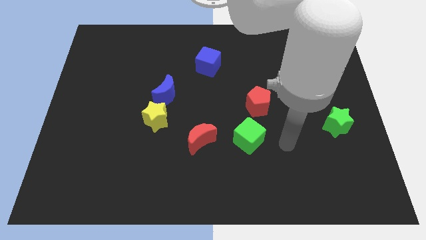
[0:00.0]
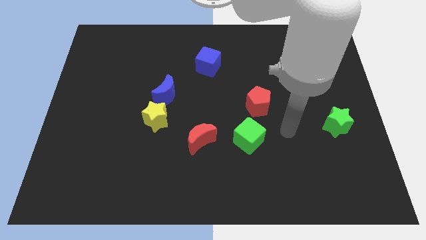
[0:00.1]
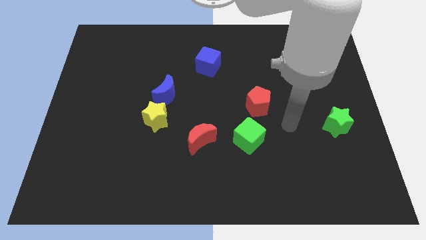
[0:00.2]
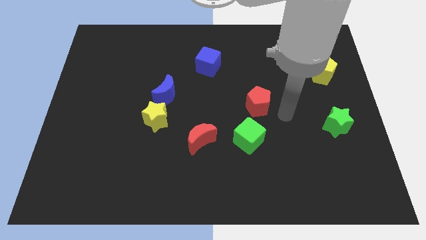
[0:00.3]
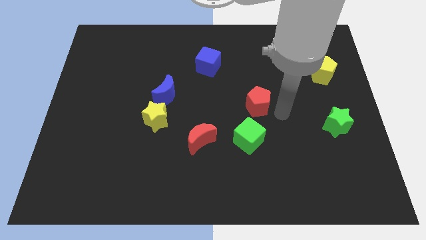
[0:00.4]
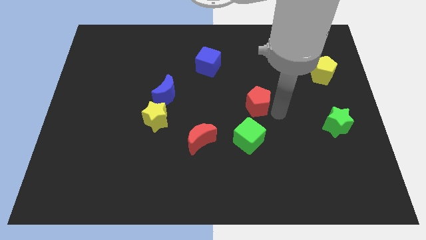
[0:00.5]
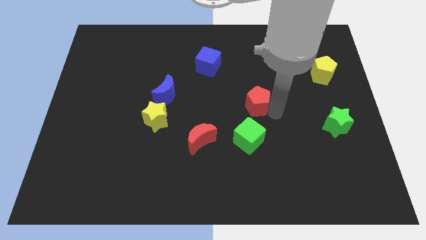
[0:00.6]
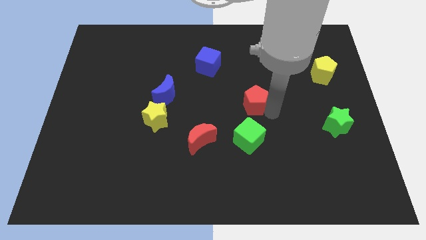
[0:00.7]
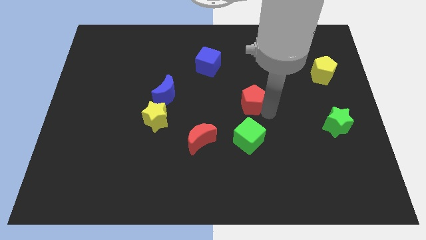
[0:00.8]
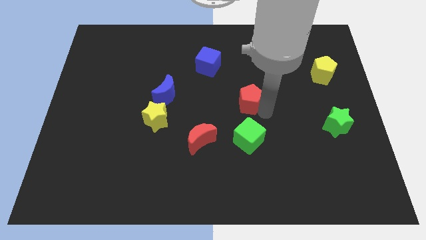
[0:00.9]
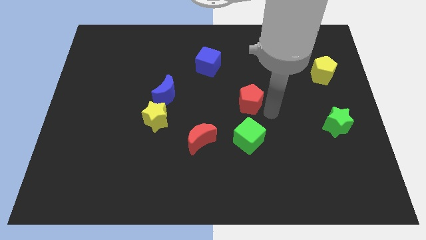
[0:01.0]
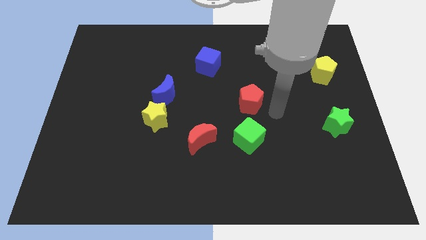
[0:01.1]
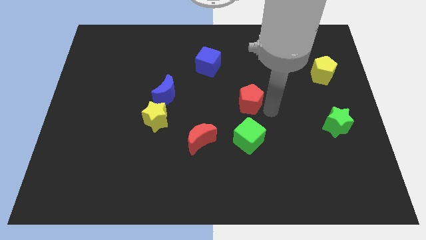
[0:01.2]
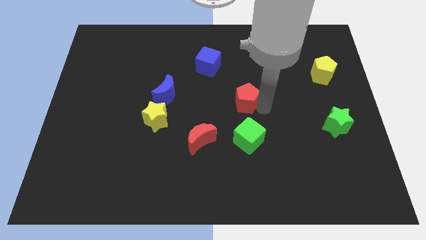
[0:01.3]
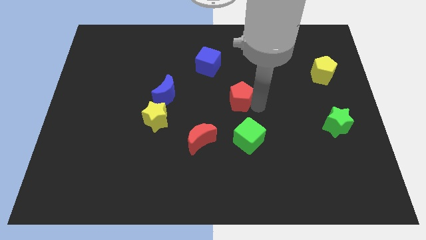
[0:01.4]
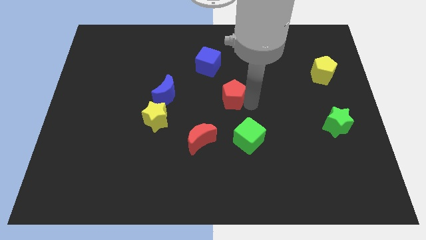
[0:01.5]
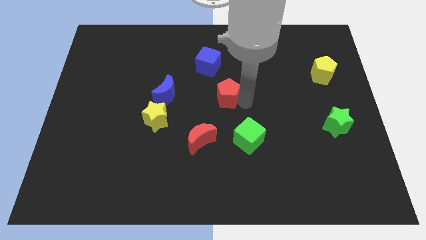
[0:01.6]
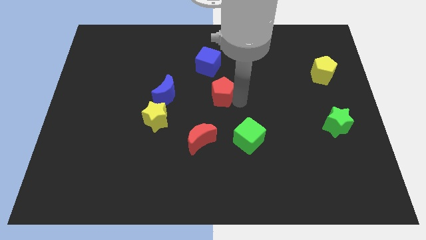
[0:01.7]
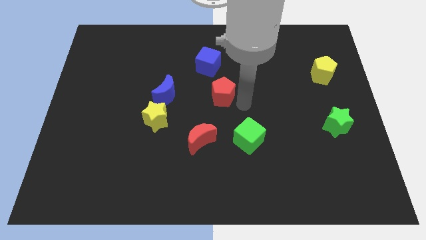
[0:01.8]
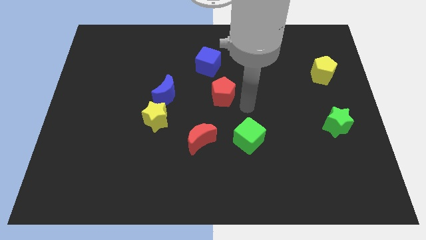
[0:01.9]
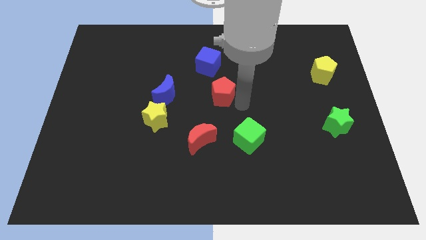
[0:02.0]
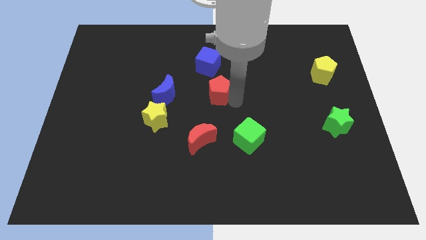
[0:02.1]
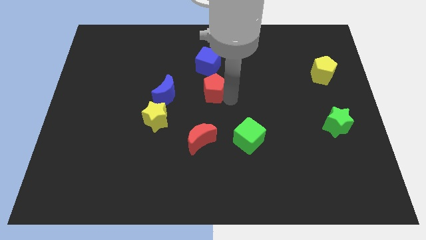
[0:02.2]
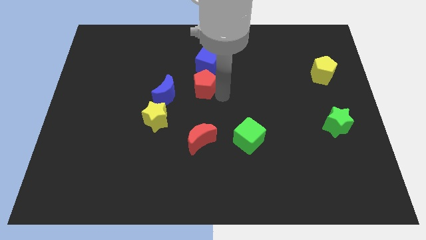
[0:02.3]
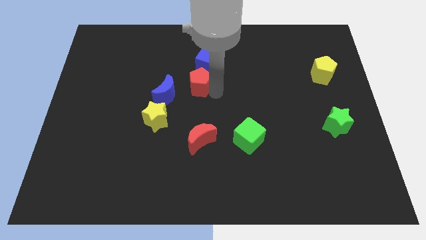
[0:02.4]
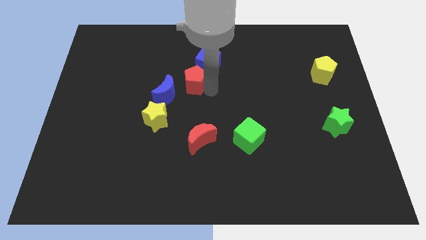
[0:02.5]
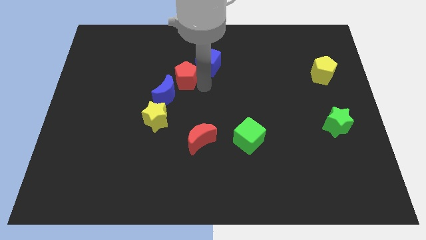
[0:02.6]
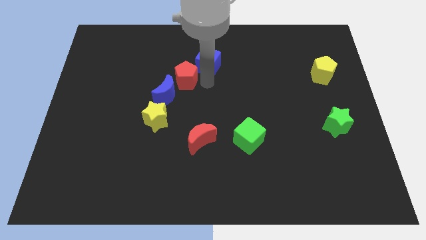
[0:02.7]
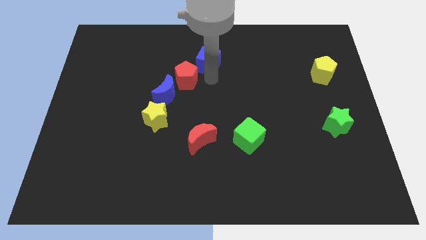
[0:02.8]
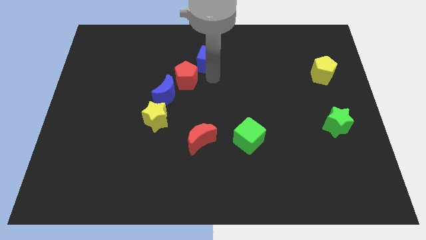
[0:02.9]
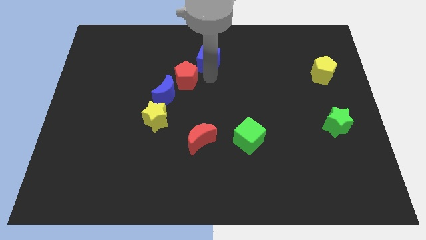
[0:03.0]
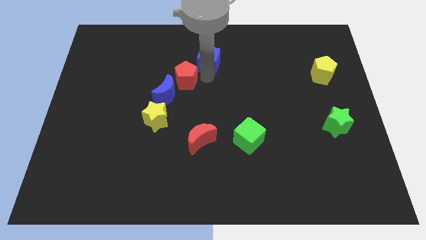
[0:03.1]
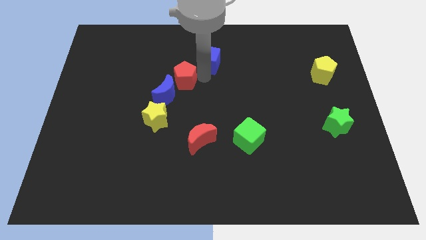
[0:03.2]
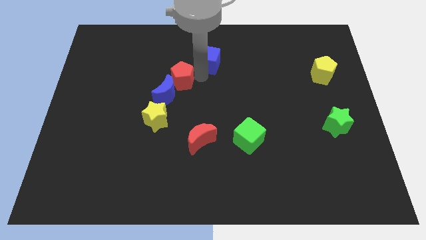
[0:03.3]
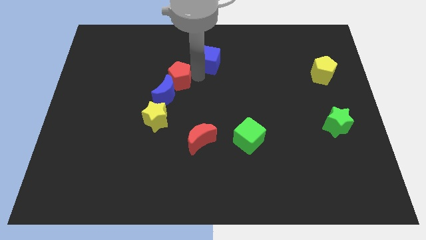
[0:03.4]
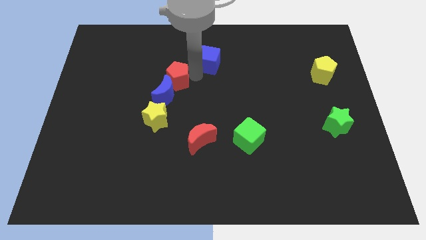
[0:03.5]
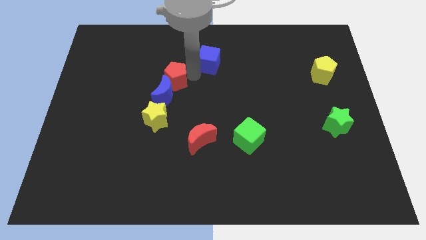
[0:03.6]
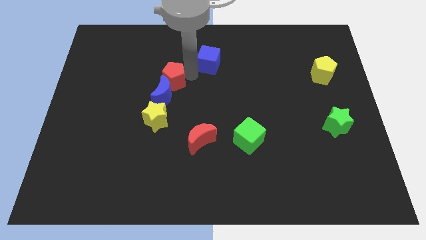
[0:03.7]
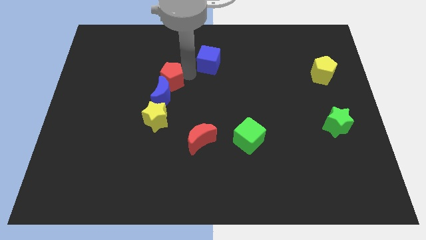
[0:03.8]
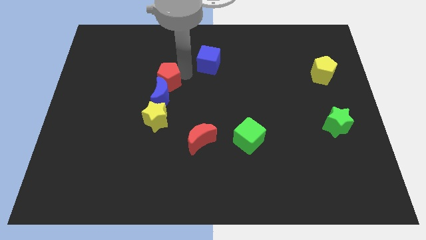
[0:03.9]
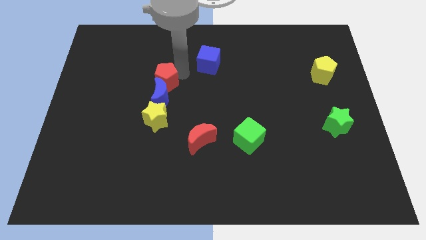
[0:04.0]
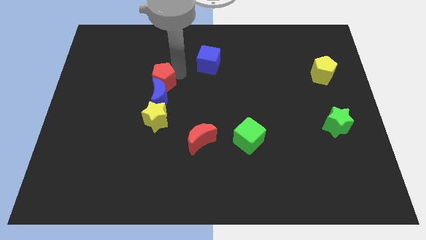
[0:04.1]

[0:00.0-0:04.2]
move the red pentagon to the left

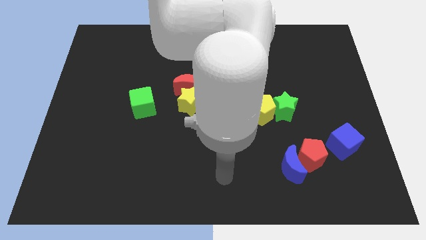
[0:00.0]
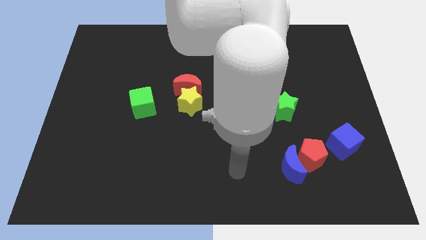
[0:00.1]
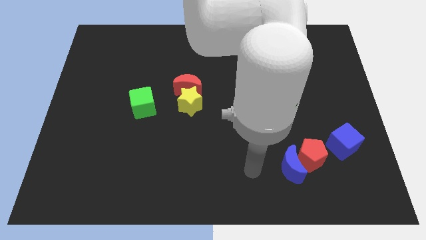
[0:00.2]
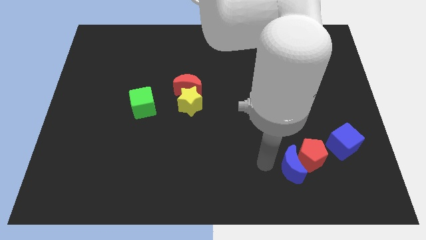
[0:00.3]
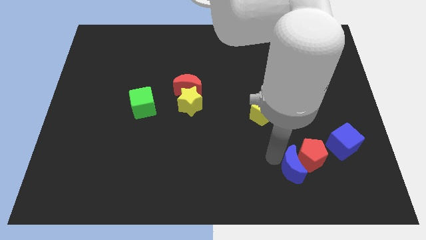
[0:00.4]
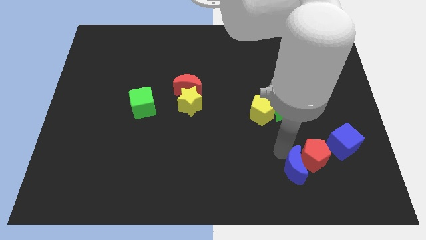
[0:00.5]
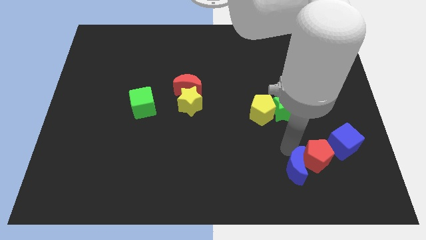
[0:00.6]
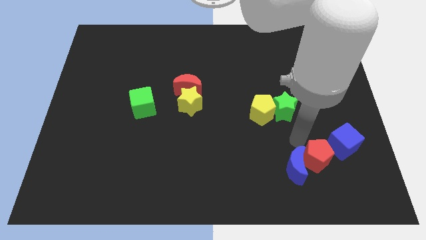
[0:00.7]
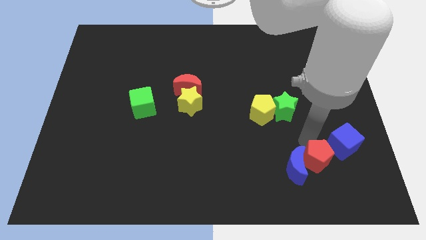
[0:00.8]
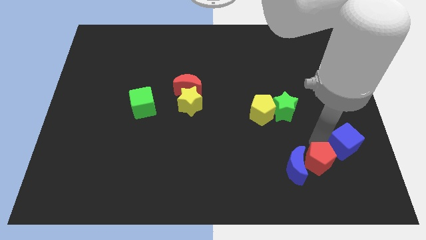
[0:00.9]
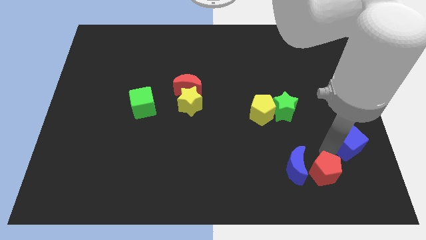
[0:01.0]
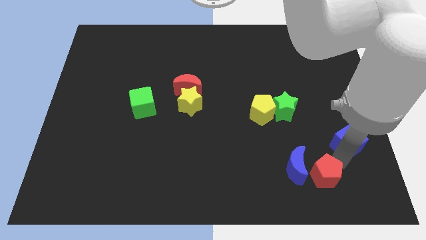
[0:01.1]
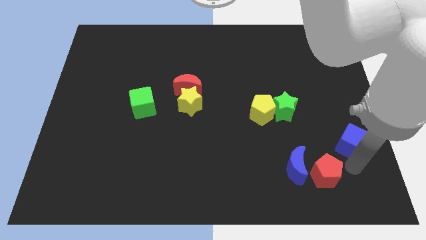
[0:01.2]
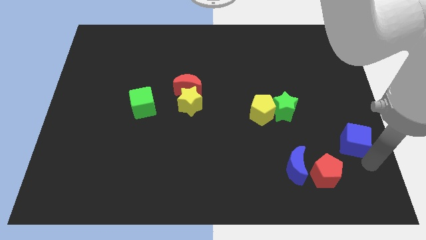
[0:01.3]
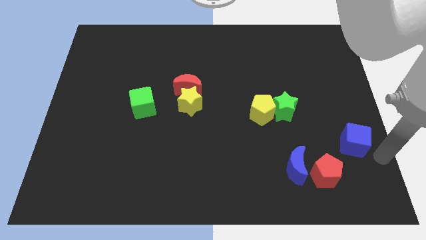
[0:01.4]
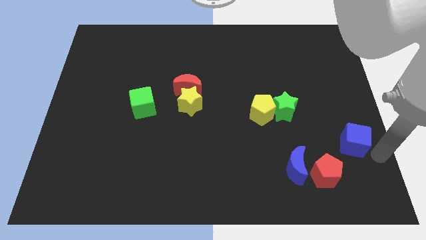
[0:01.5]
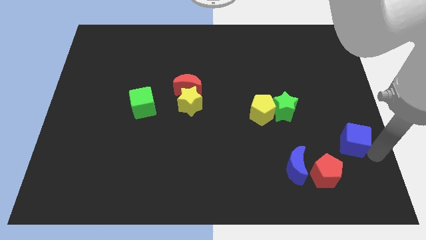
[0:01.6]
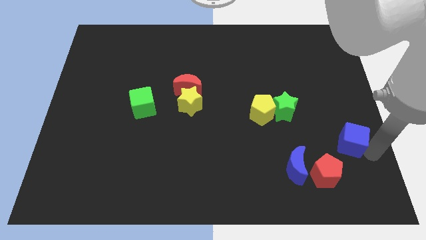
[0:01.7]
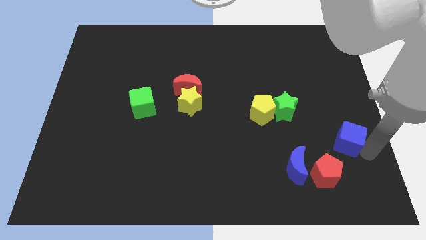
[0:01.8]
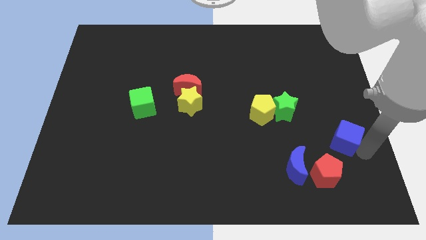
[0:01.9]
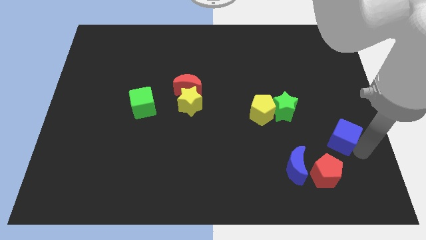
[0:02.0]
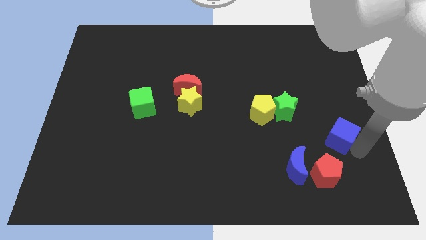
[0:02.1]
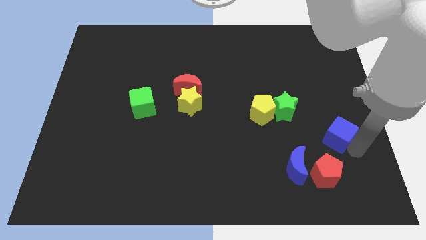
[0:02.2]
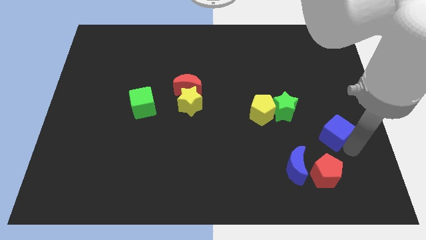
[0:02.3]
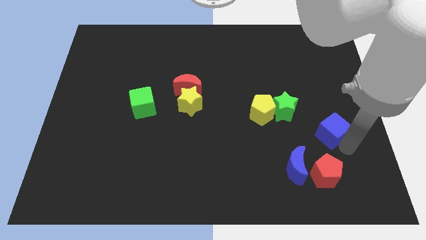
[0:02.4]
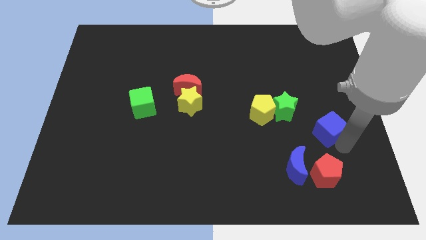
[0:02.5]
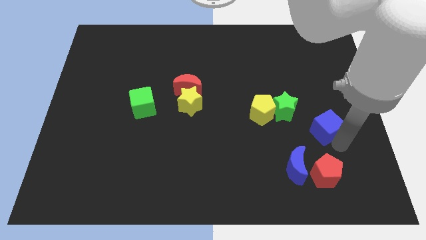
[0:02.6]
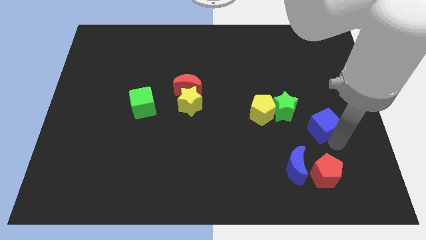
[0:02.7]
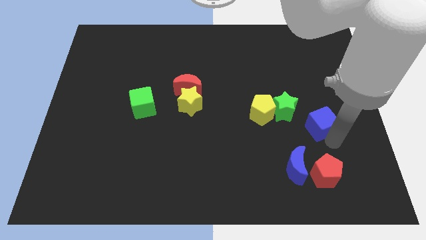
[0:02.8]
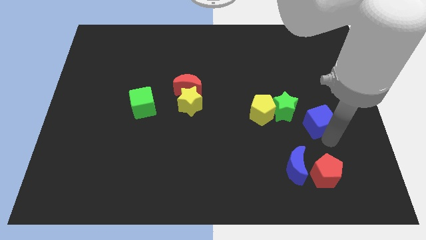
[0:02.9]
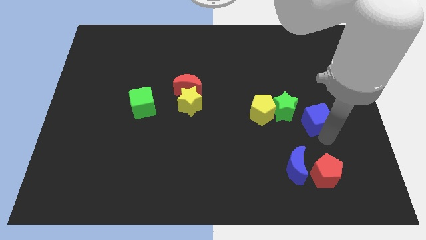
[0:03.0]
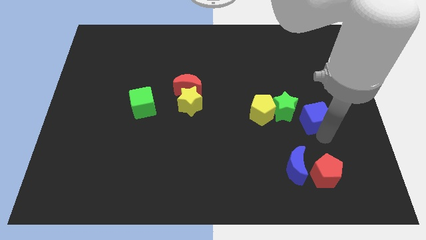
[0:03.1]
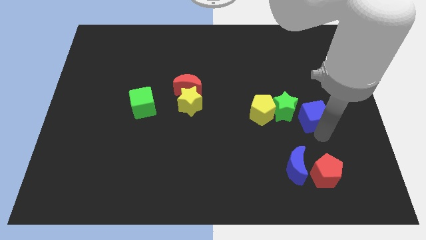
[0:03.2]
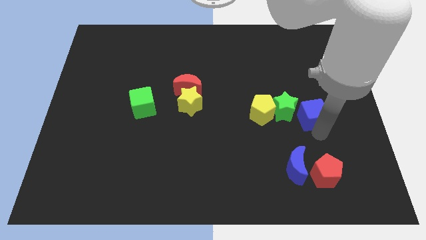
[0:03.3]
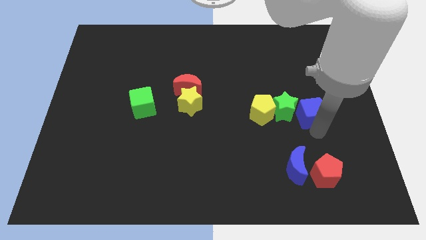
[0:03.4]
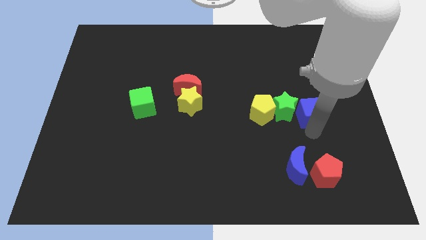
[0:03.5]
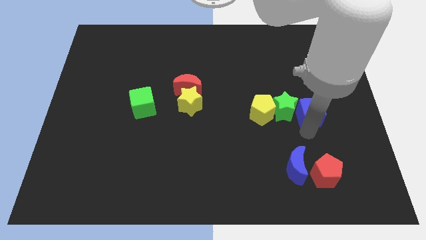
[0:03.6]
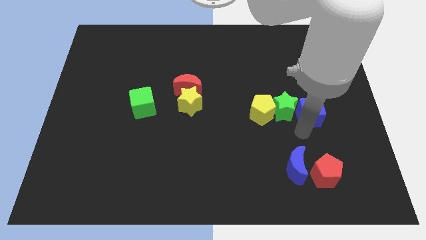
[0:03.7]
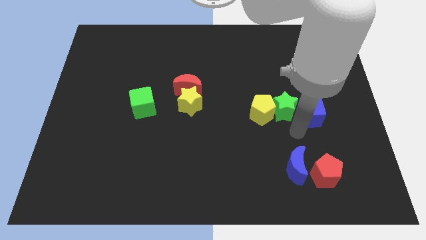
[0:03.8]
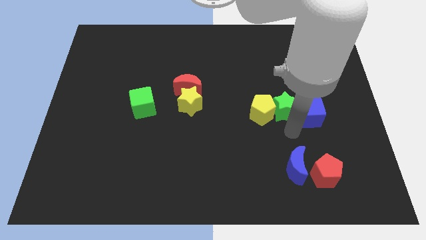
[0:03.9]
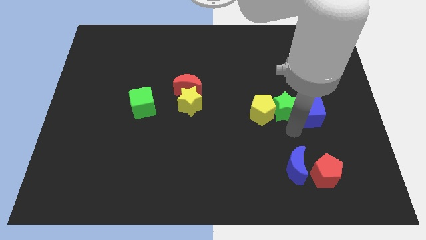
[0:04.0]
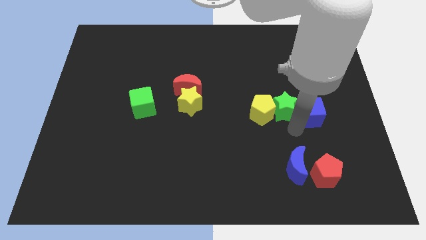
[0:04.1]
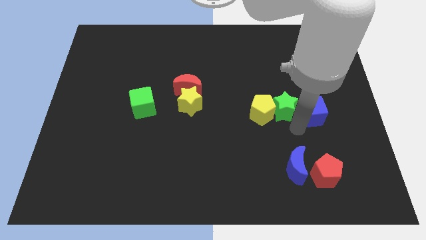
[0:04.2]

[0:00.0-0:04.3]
push the blue cube a little upwards

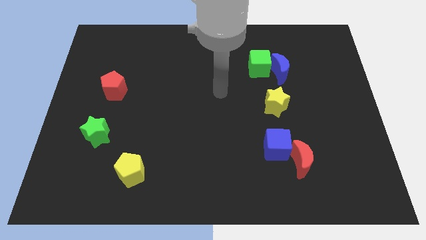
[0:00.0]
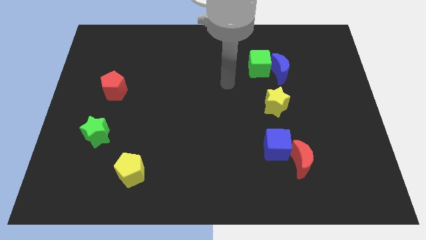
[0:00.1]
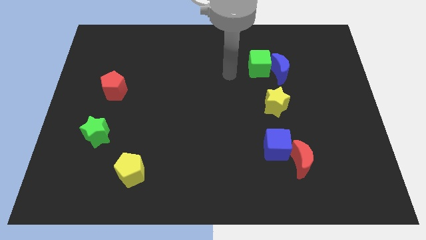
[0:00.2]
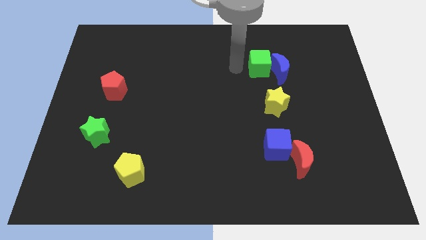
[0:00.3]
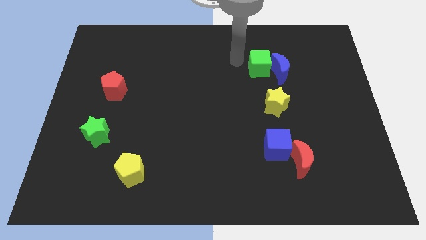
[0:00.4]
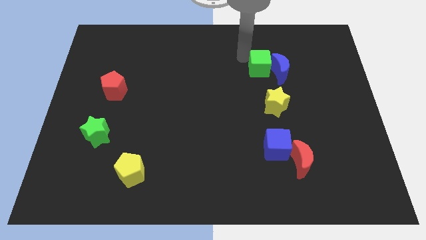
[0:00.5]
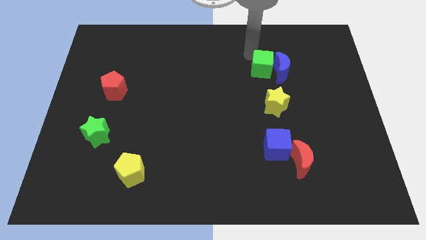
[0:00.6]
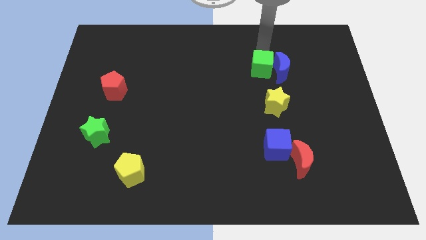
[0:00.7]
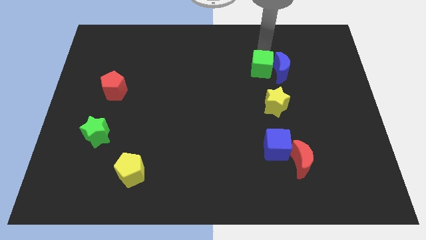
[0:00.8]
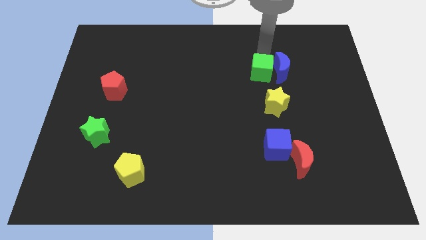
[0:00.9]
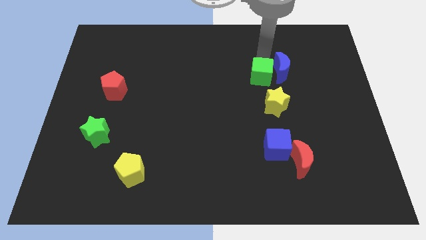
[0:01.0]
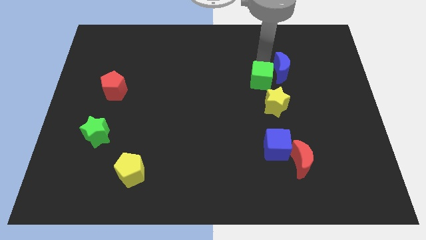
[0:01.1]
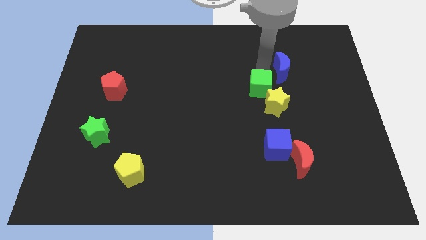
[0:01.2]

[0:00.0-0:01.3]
slide the green cube down slightly
